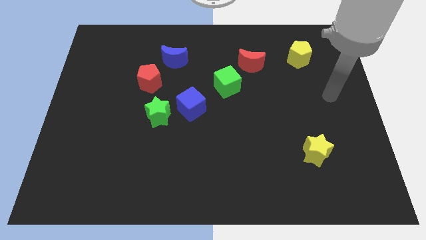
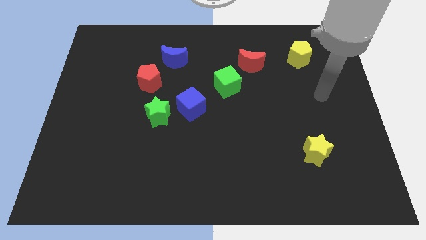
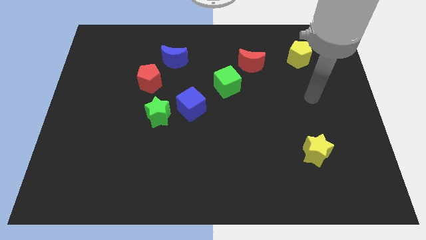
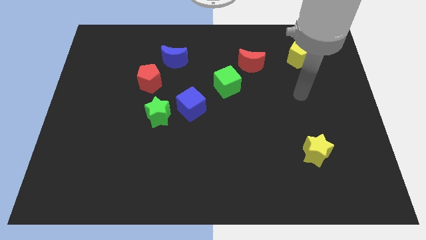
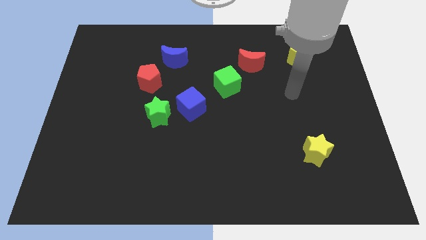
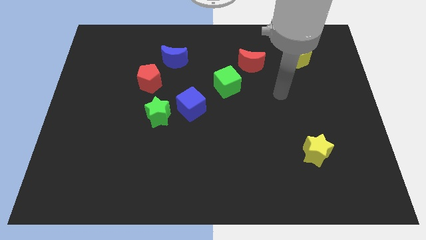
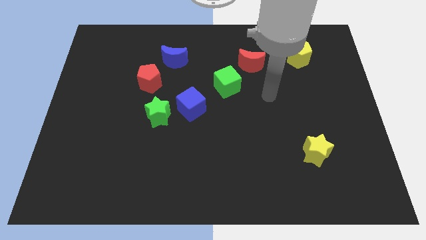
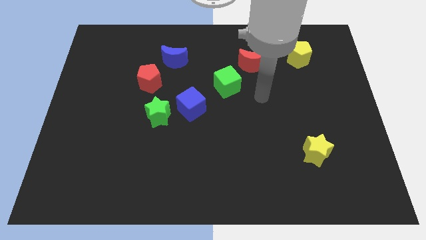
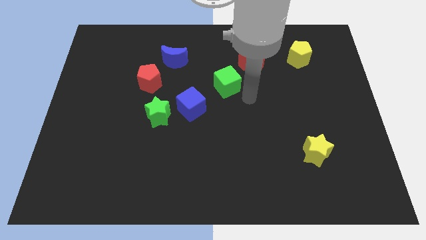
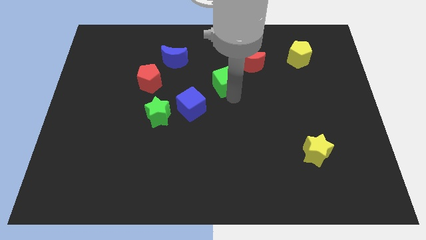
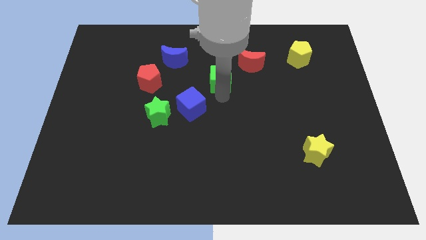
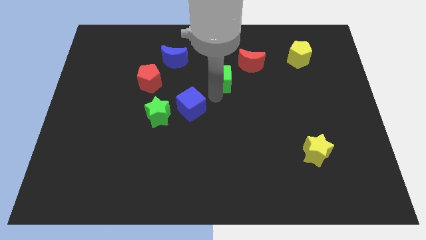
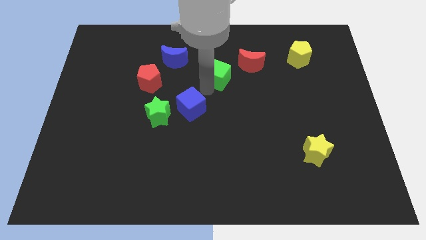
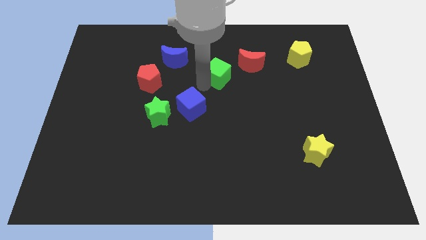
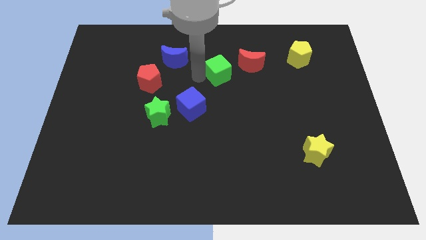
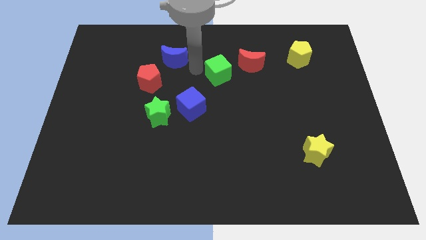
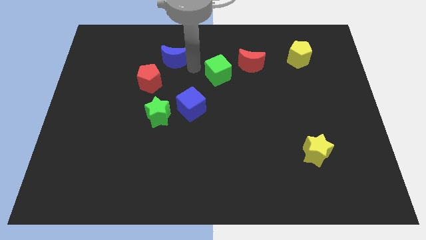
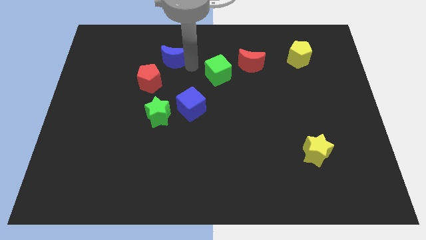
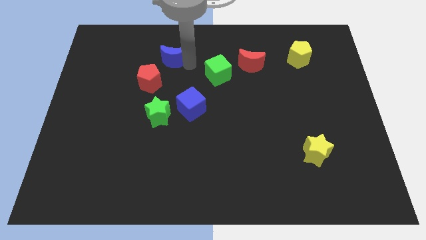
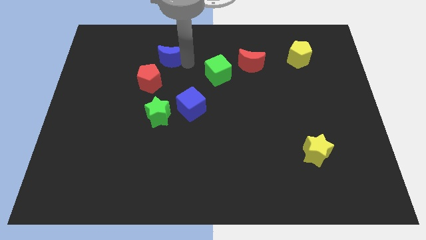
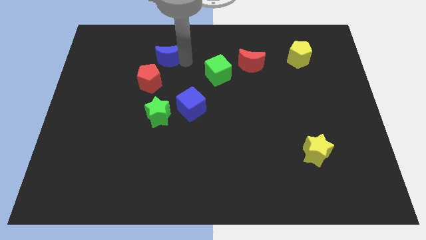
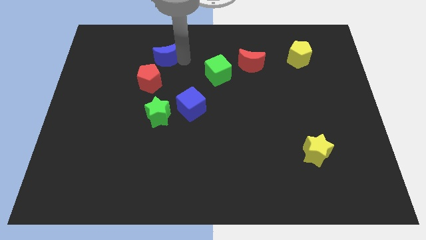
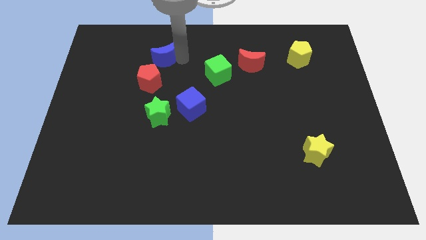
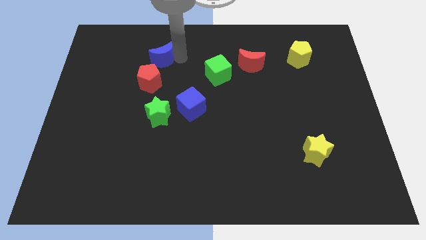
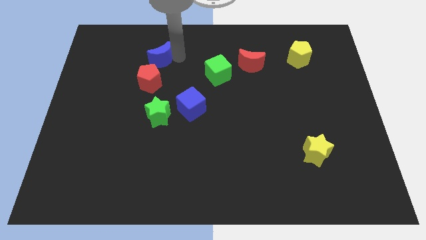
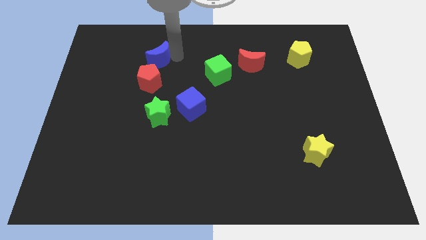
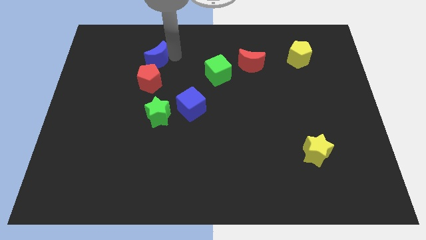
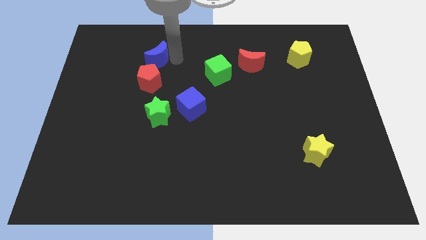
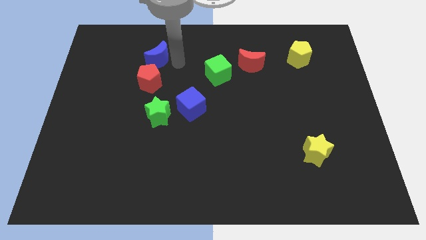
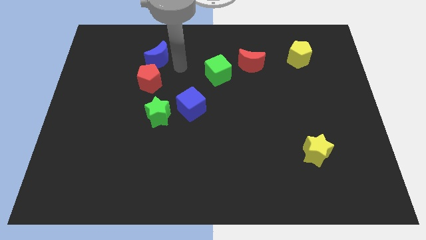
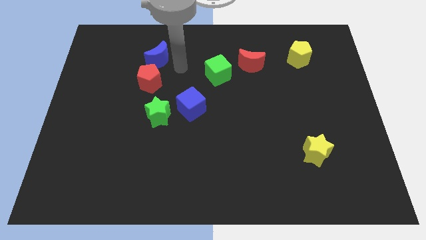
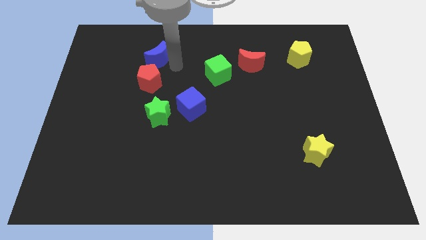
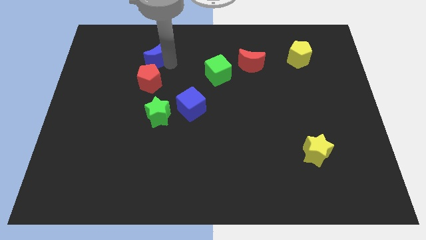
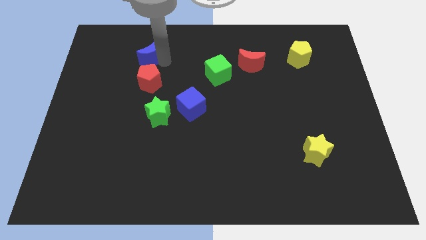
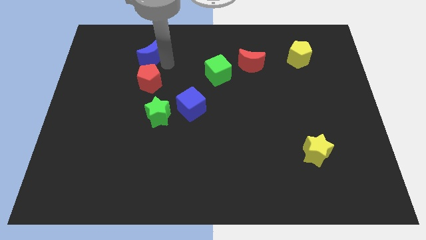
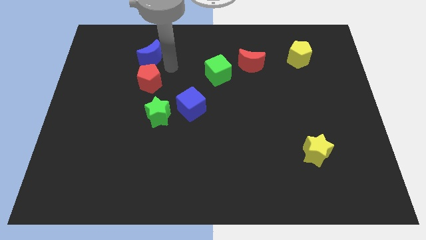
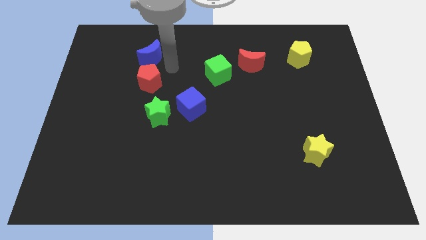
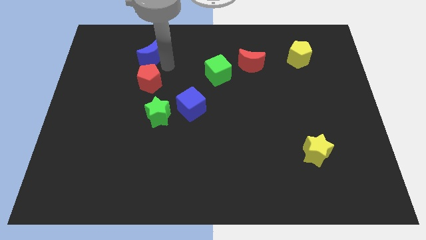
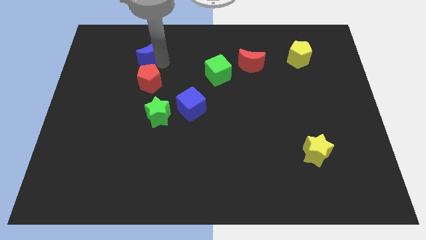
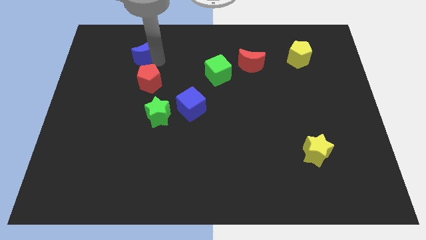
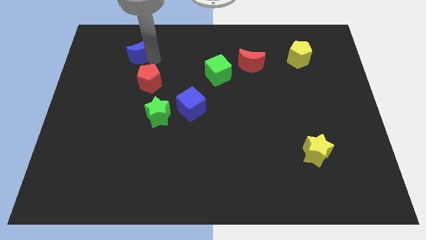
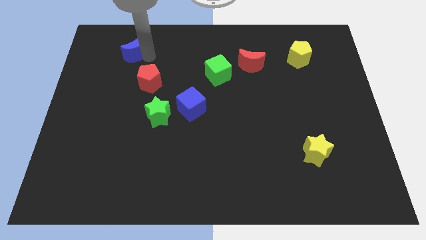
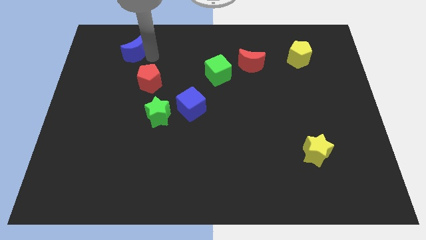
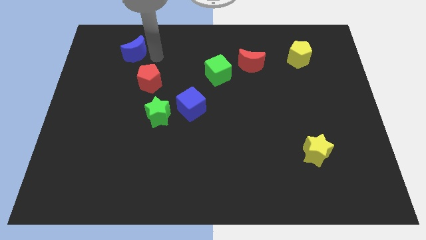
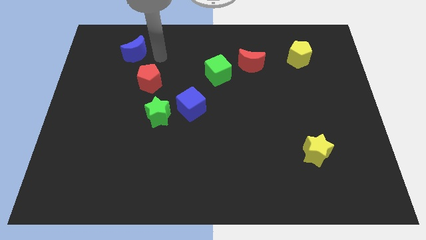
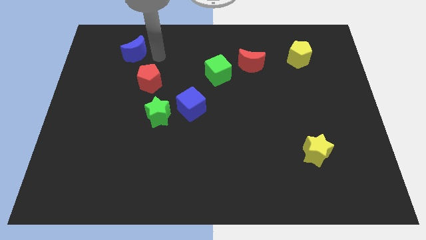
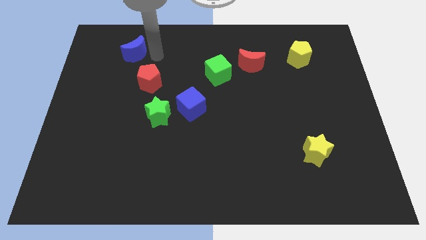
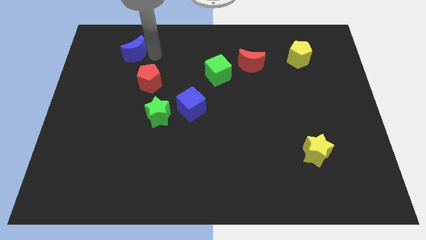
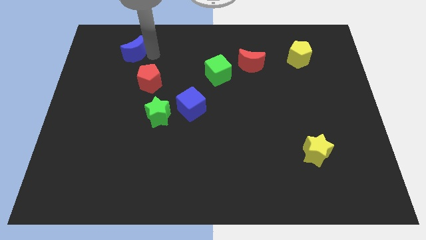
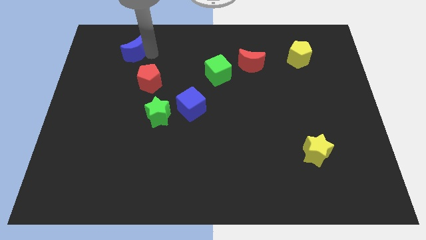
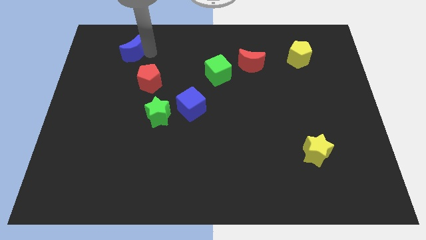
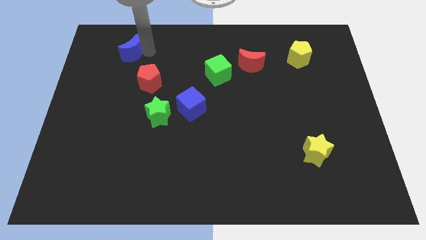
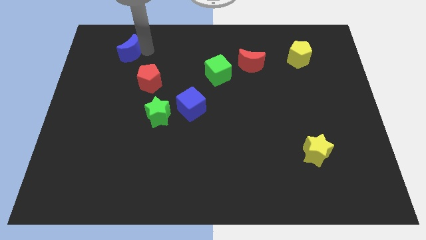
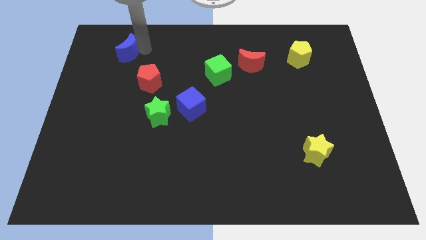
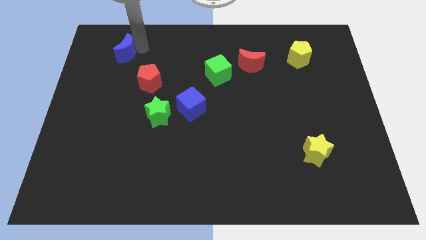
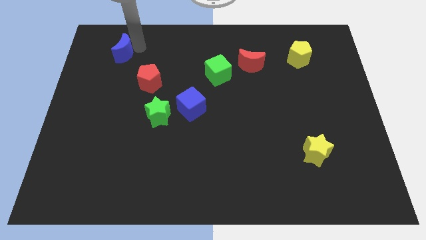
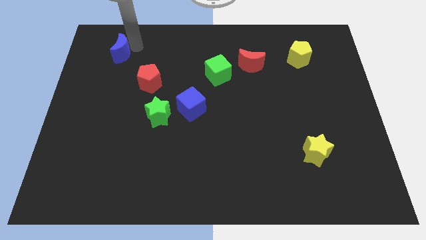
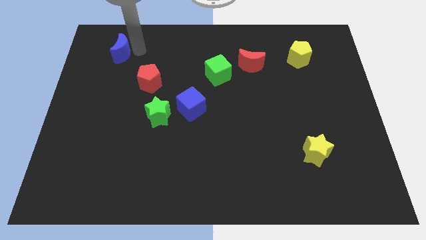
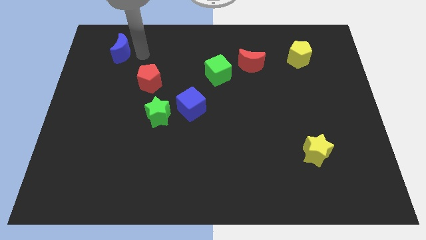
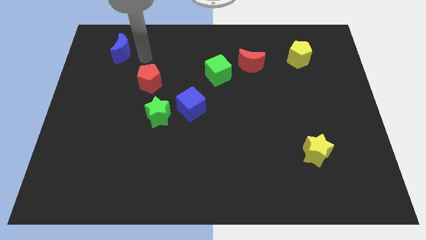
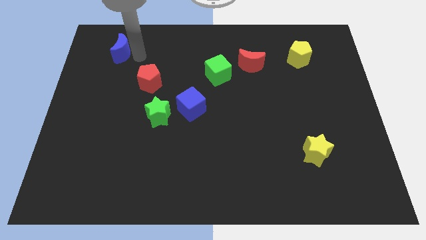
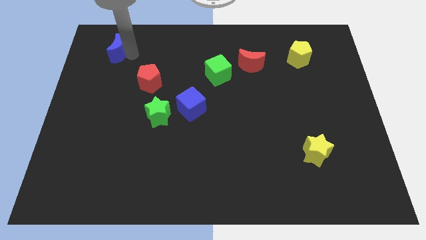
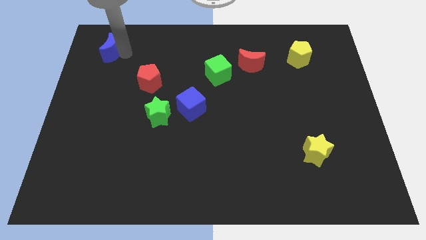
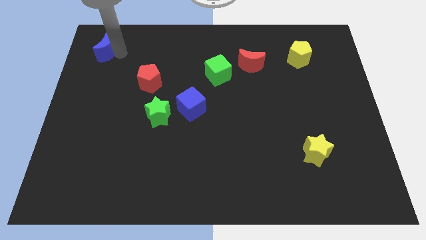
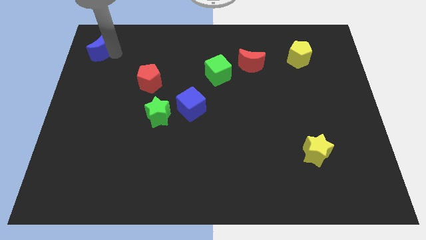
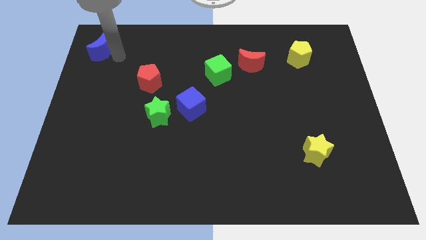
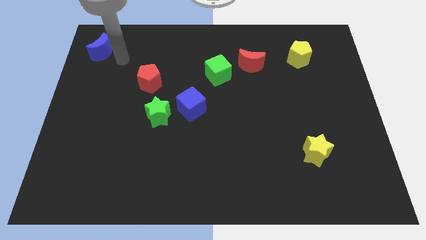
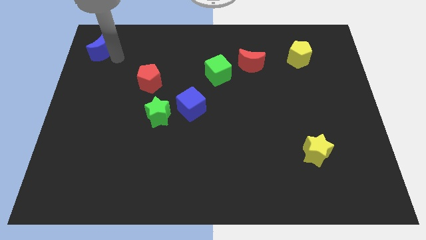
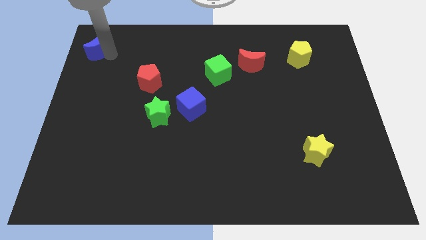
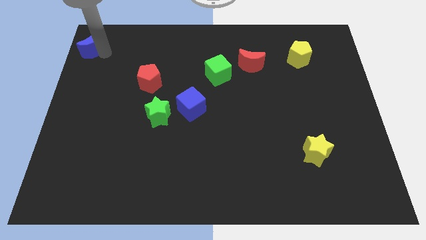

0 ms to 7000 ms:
push the blue moon to the top left
